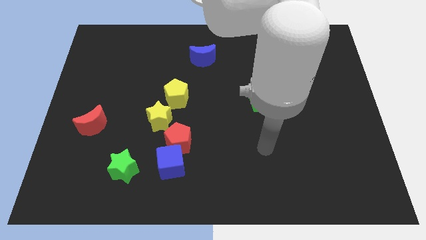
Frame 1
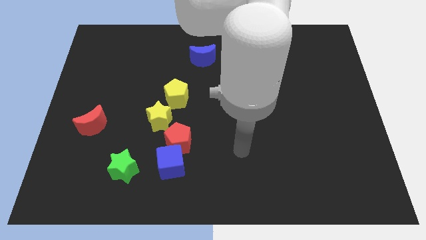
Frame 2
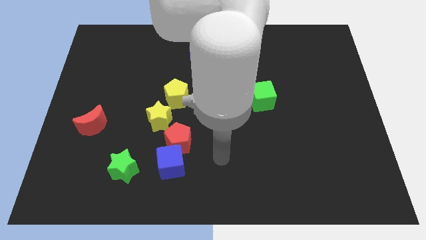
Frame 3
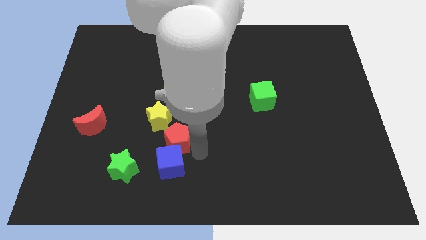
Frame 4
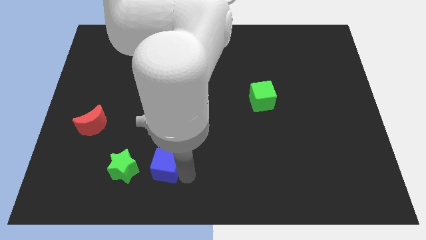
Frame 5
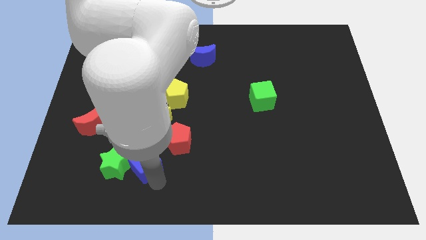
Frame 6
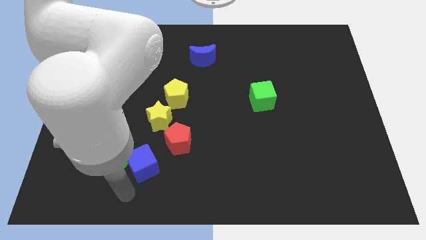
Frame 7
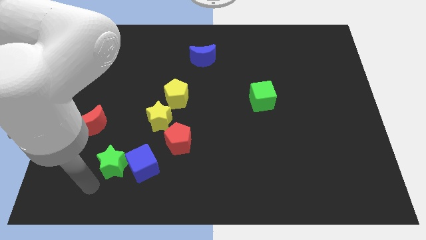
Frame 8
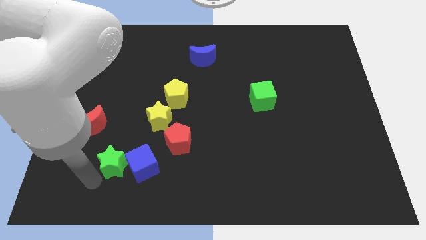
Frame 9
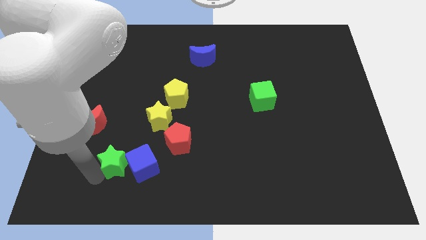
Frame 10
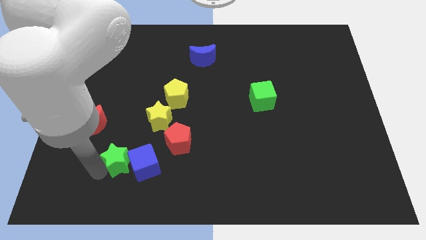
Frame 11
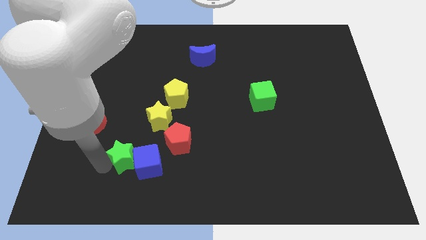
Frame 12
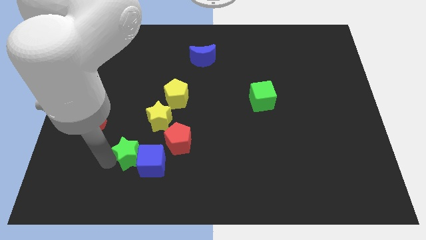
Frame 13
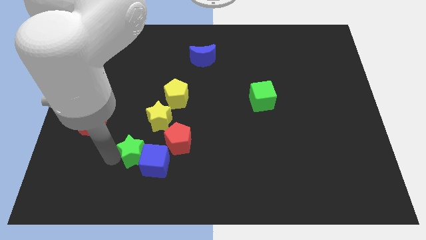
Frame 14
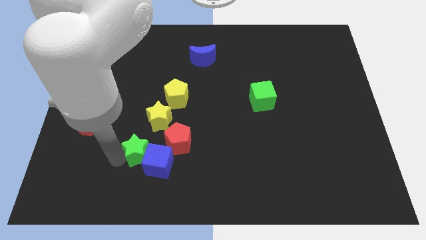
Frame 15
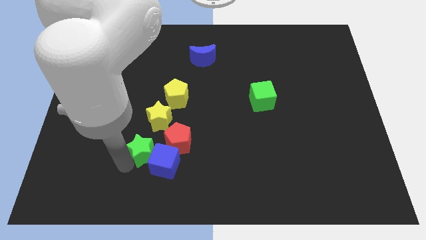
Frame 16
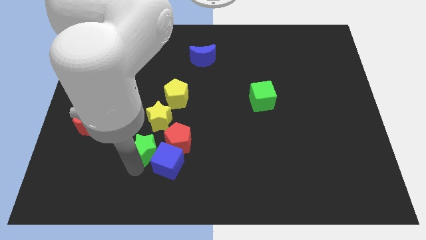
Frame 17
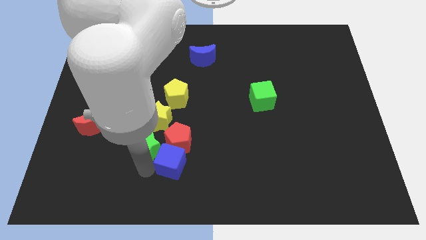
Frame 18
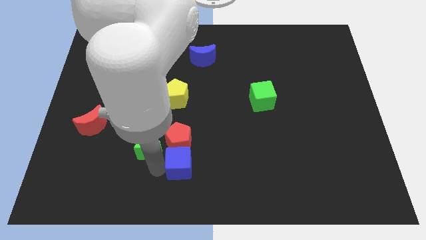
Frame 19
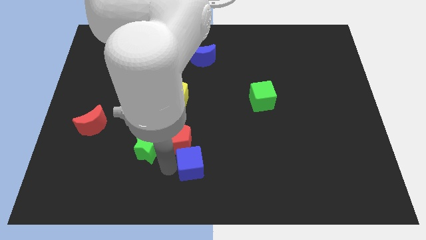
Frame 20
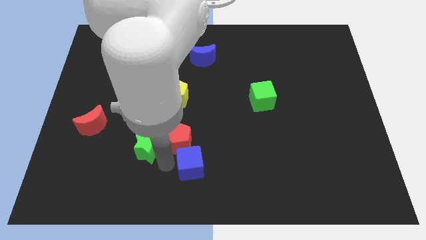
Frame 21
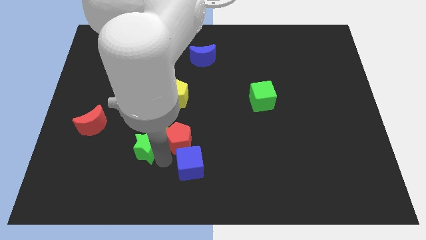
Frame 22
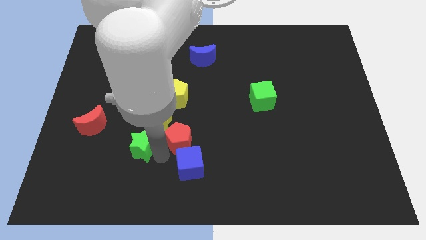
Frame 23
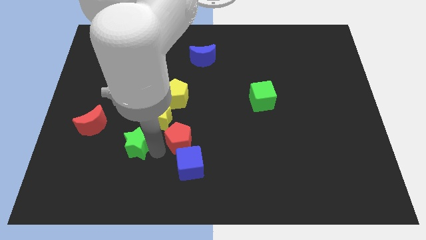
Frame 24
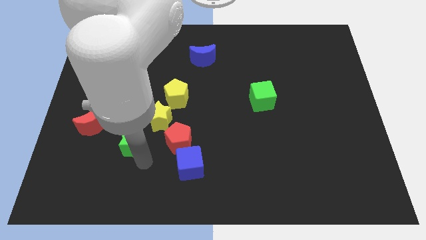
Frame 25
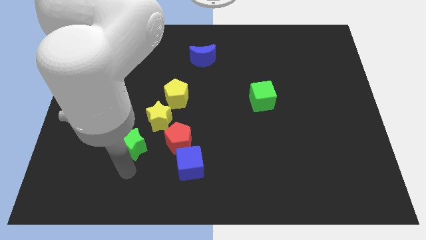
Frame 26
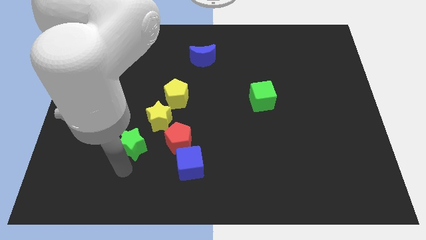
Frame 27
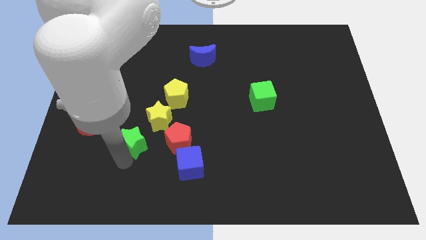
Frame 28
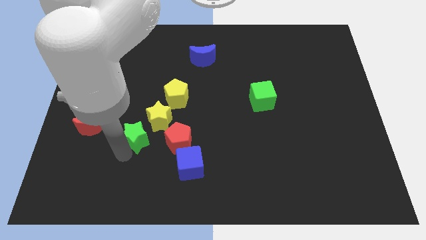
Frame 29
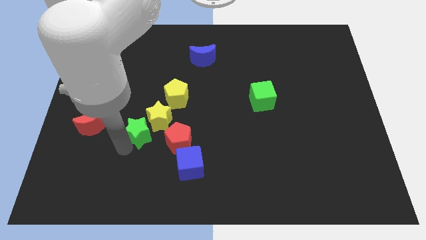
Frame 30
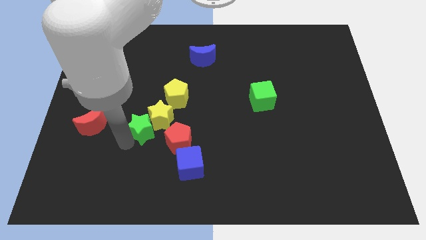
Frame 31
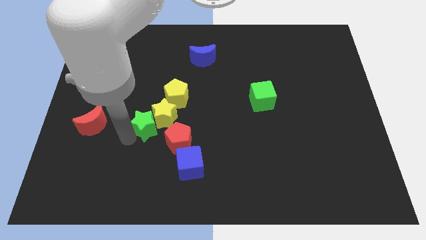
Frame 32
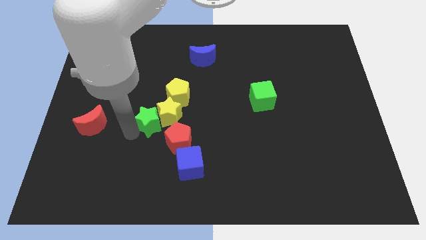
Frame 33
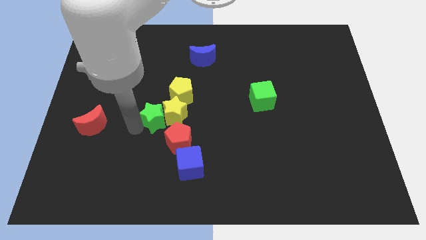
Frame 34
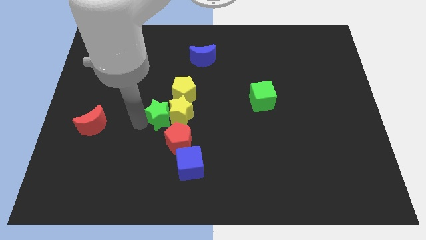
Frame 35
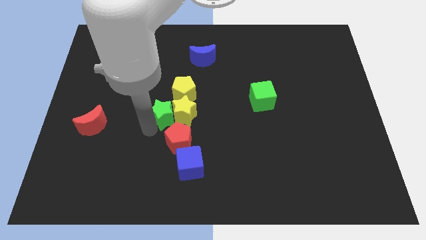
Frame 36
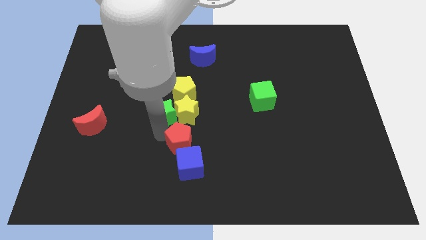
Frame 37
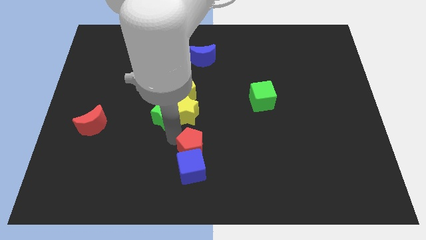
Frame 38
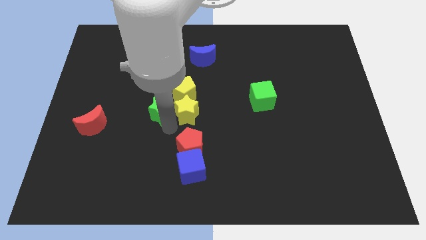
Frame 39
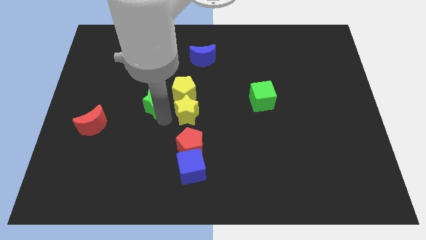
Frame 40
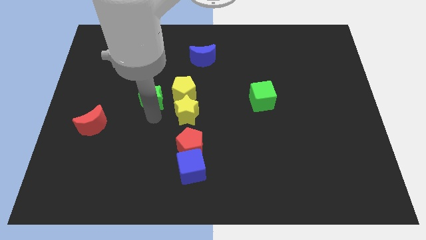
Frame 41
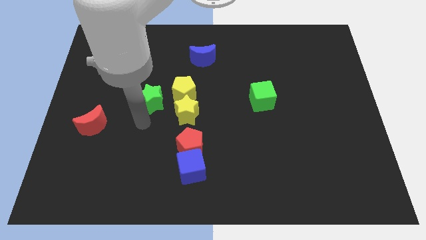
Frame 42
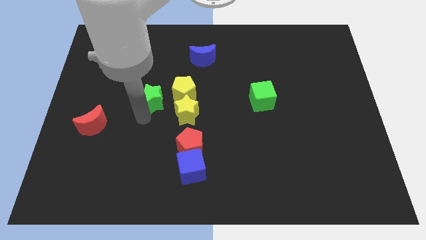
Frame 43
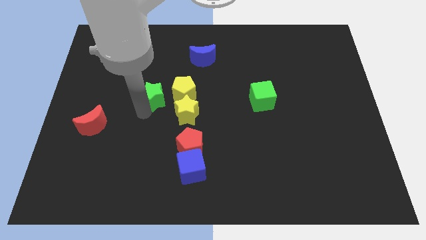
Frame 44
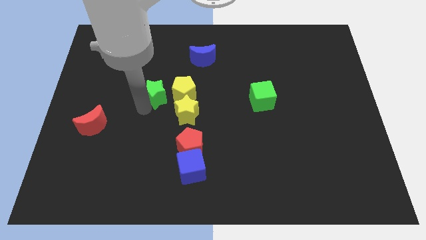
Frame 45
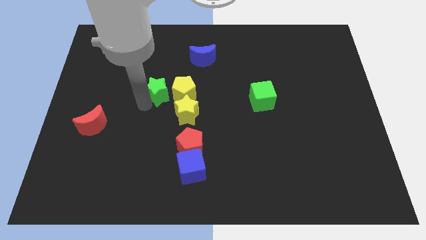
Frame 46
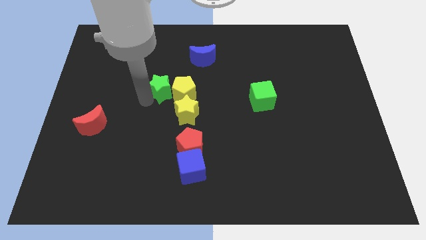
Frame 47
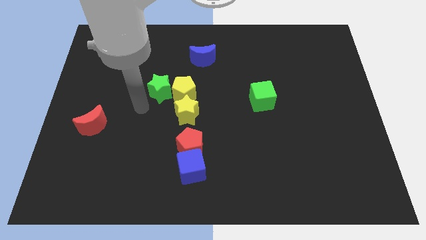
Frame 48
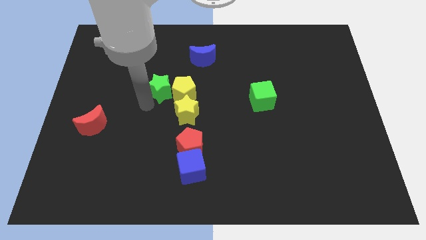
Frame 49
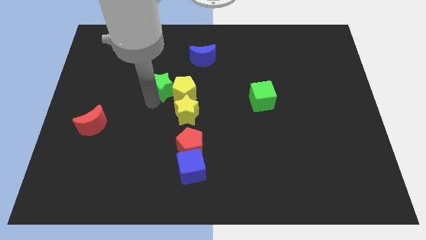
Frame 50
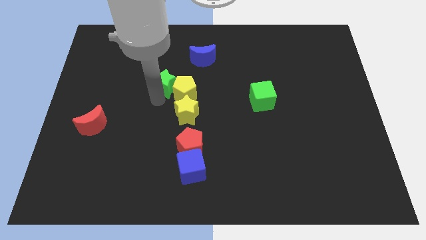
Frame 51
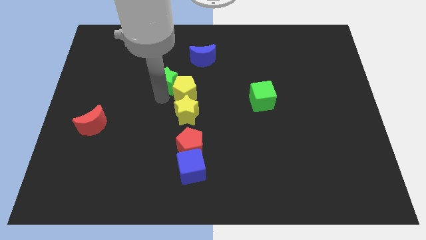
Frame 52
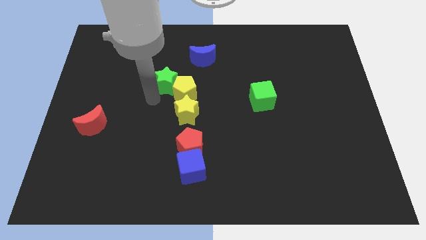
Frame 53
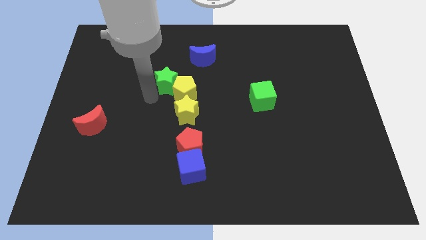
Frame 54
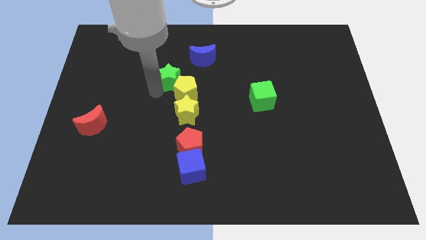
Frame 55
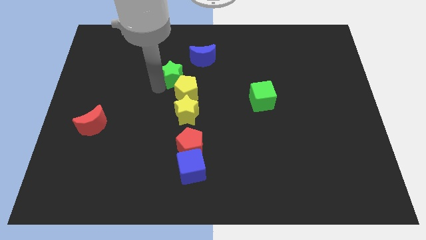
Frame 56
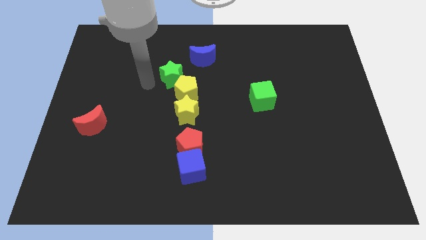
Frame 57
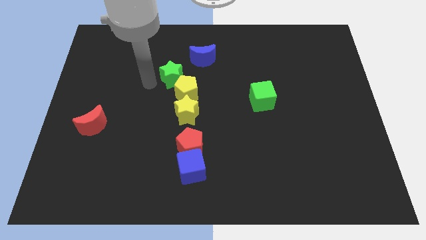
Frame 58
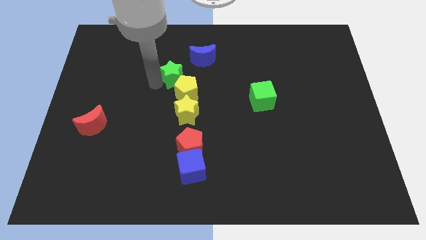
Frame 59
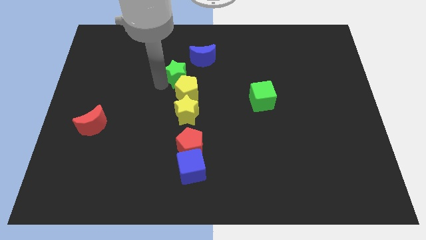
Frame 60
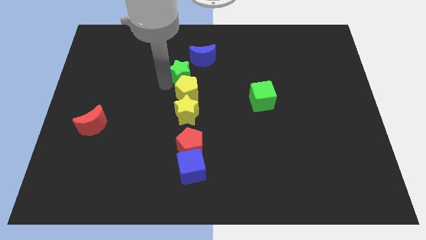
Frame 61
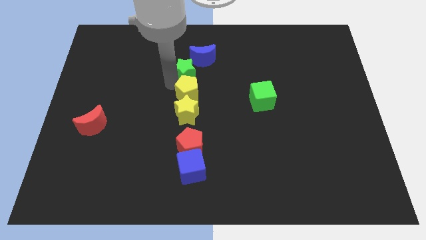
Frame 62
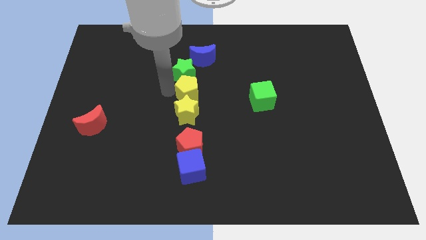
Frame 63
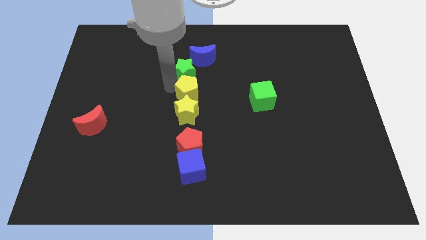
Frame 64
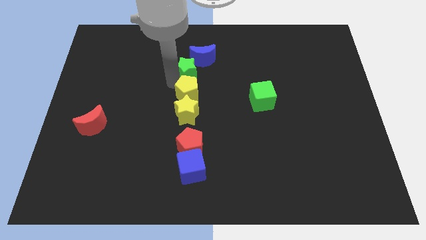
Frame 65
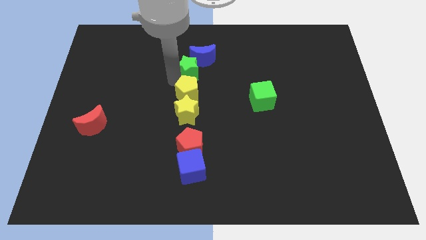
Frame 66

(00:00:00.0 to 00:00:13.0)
push the green star to the blue moon

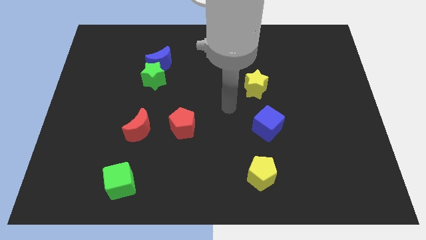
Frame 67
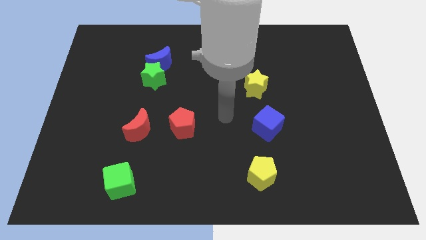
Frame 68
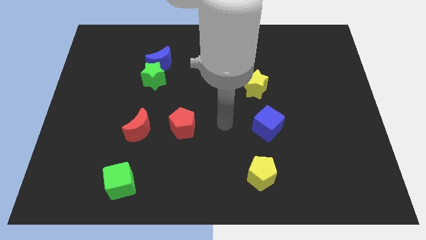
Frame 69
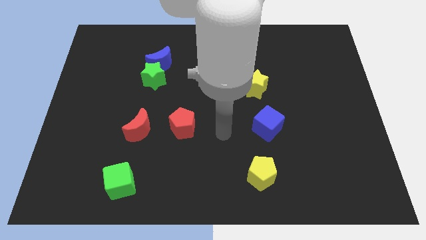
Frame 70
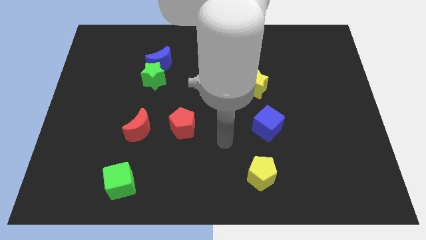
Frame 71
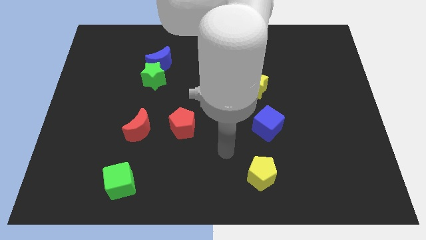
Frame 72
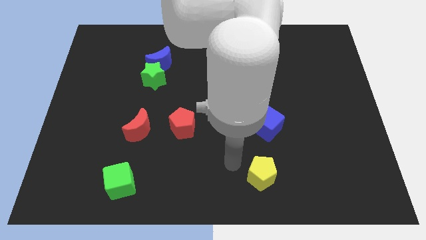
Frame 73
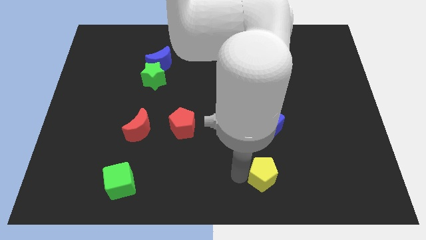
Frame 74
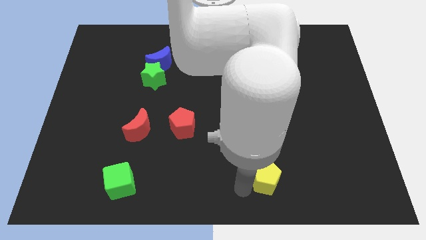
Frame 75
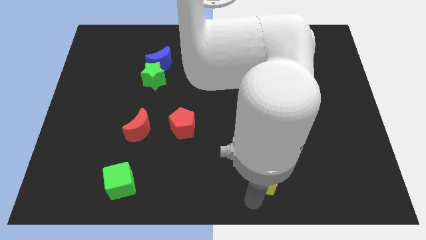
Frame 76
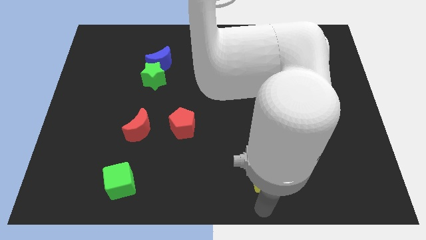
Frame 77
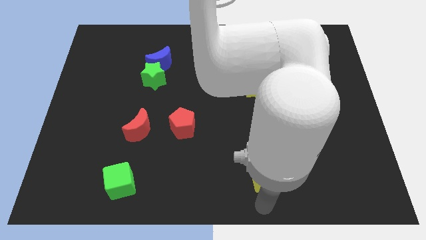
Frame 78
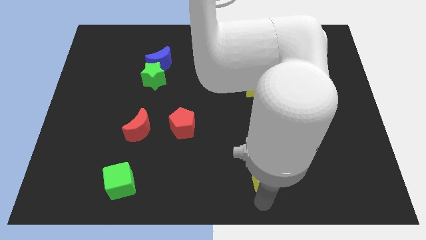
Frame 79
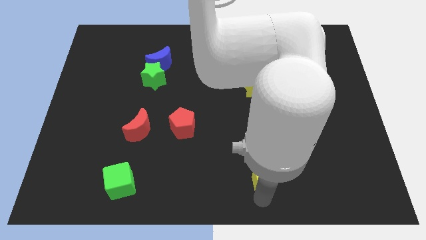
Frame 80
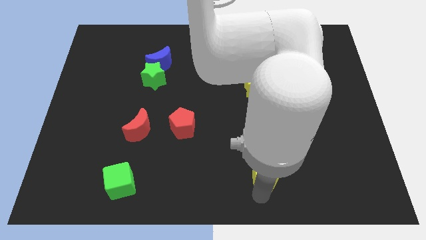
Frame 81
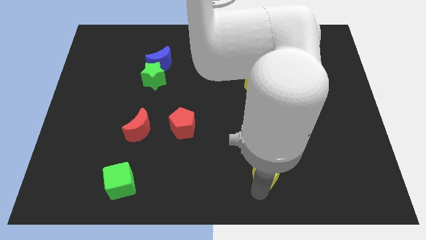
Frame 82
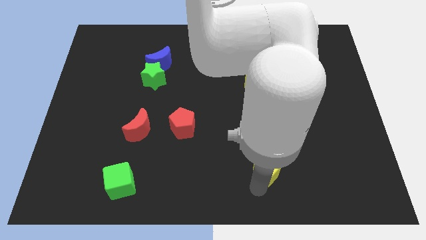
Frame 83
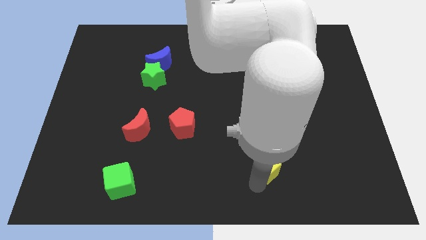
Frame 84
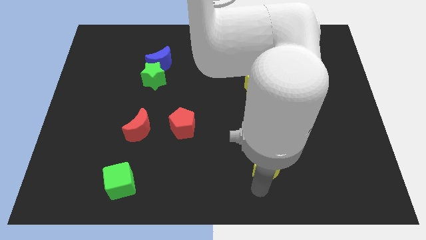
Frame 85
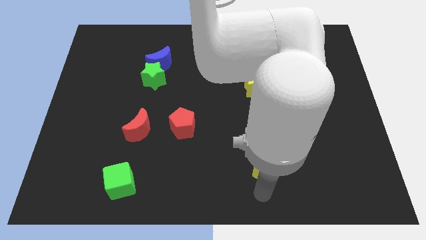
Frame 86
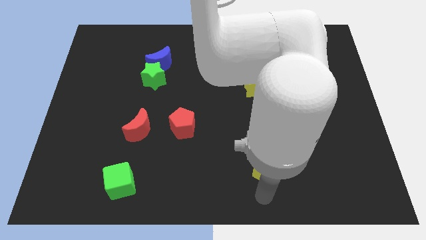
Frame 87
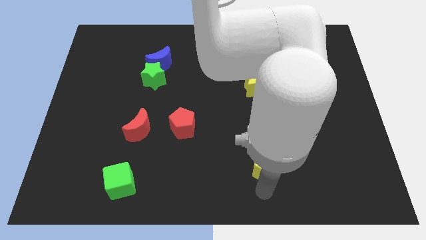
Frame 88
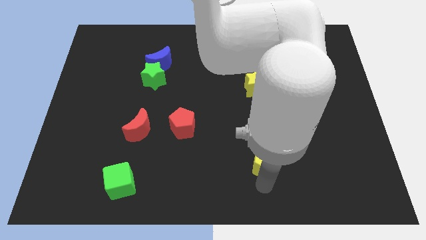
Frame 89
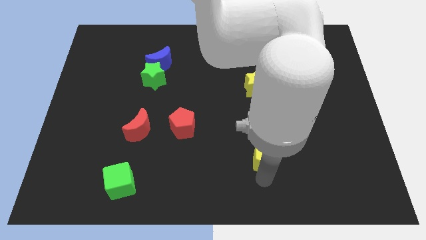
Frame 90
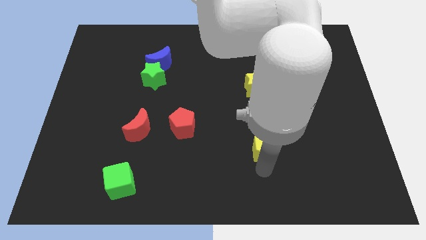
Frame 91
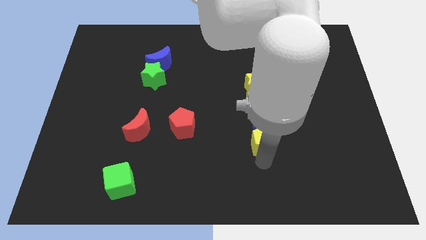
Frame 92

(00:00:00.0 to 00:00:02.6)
push the yellow pentagon to the blue cube
